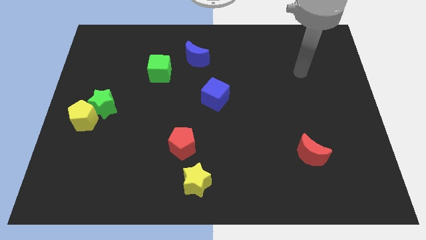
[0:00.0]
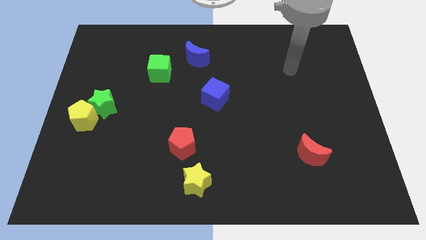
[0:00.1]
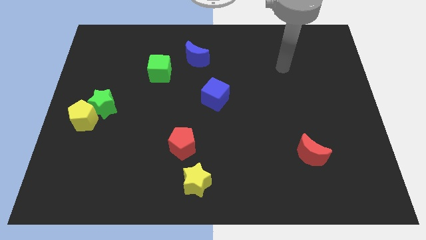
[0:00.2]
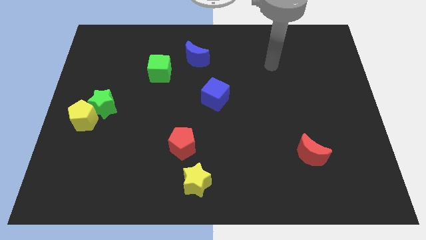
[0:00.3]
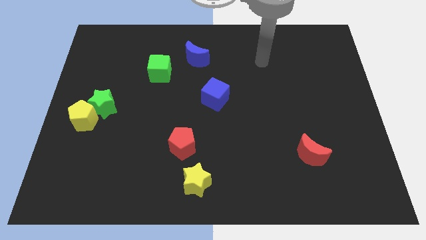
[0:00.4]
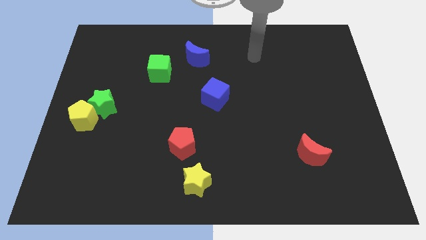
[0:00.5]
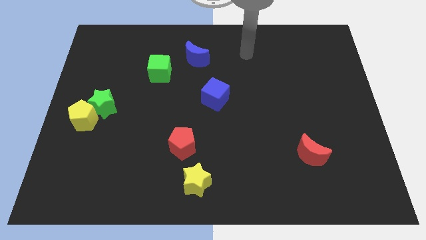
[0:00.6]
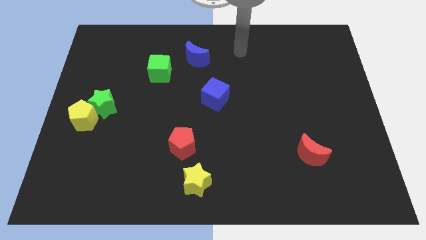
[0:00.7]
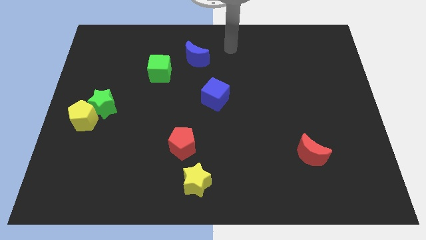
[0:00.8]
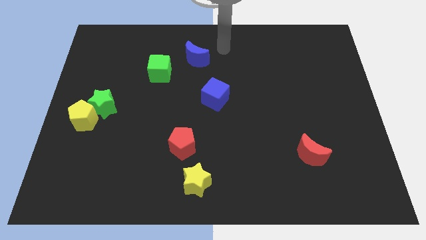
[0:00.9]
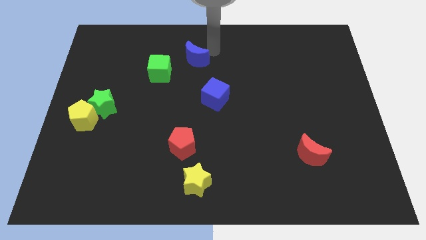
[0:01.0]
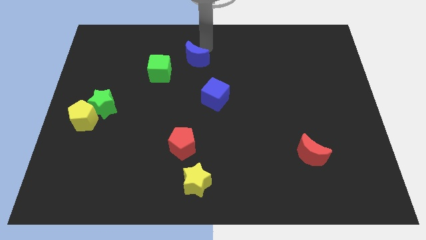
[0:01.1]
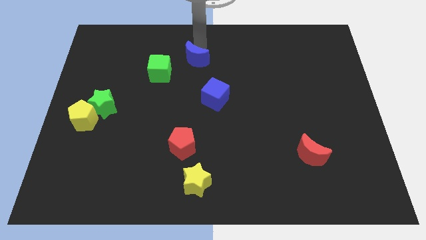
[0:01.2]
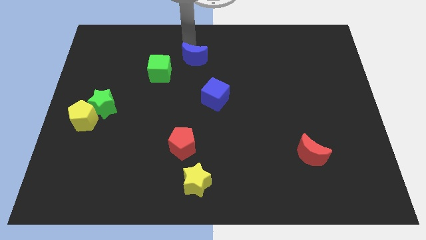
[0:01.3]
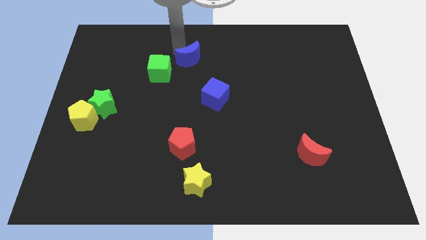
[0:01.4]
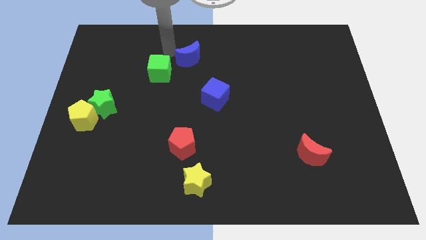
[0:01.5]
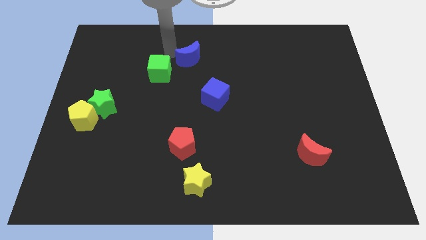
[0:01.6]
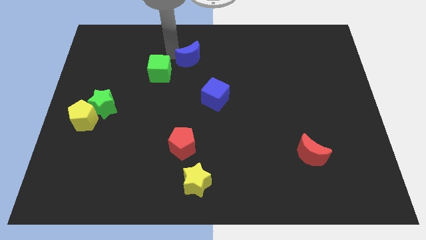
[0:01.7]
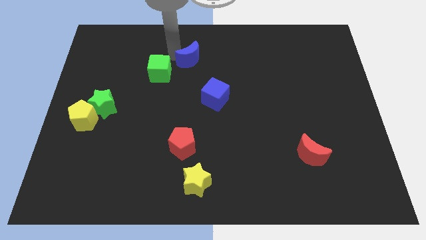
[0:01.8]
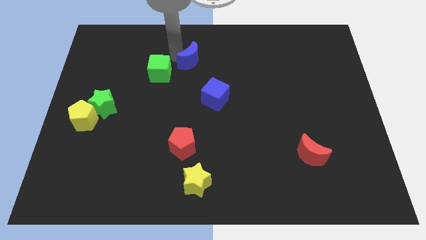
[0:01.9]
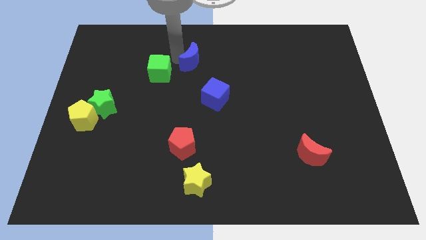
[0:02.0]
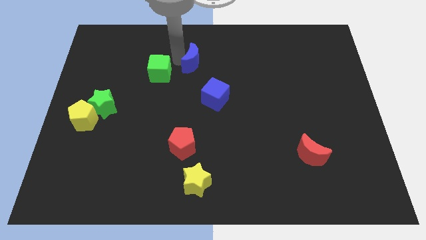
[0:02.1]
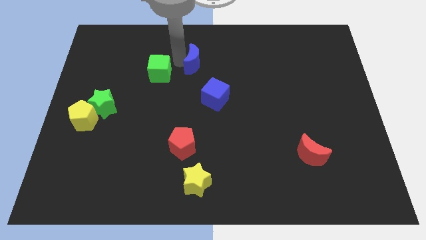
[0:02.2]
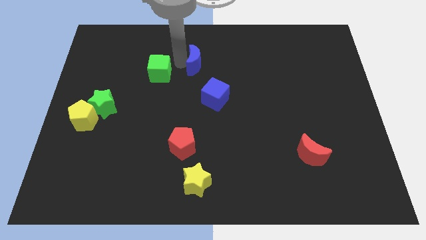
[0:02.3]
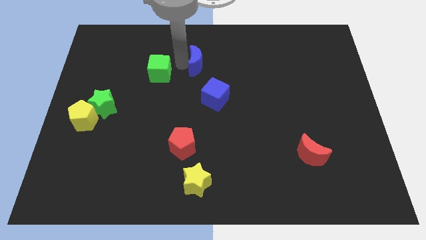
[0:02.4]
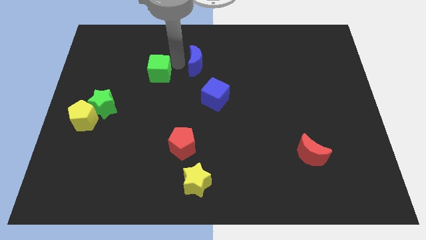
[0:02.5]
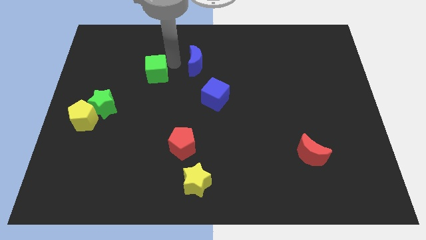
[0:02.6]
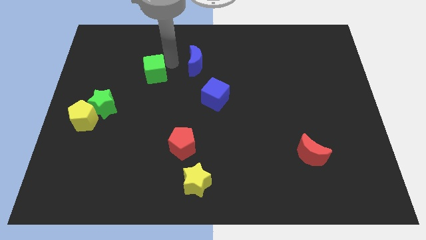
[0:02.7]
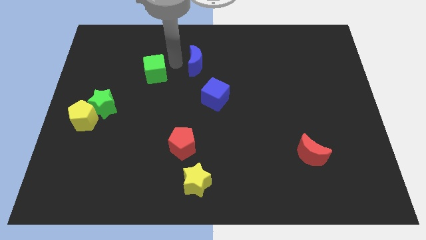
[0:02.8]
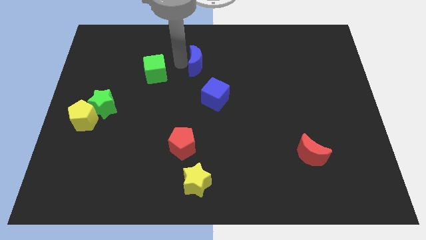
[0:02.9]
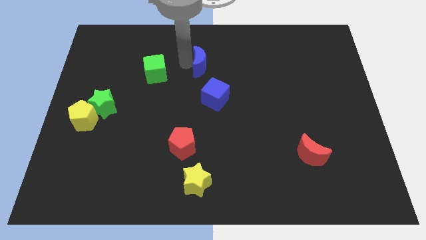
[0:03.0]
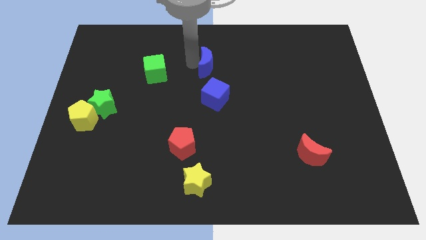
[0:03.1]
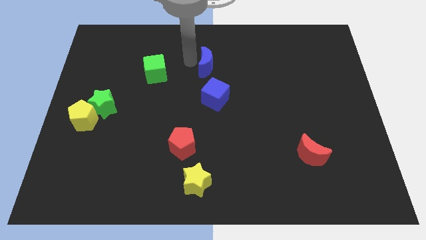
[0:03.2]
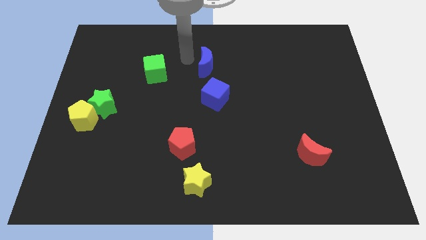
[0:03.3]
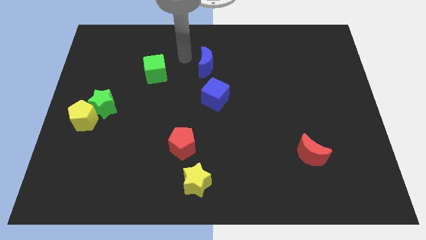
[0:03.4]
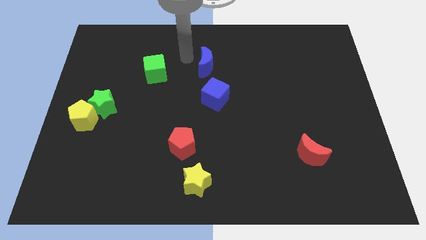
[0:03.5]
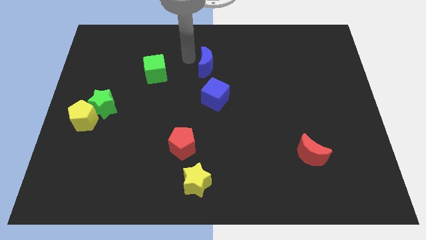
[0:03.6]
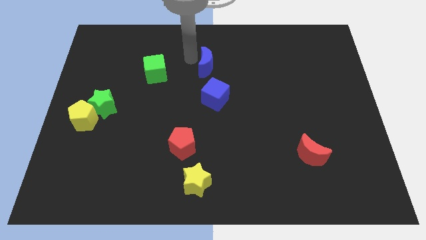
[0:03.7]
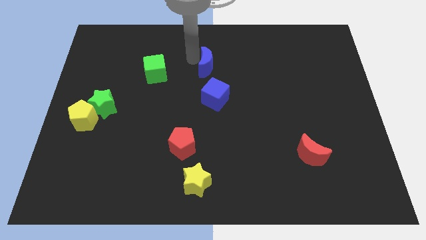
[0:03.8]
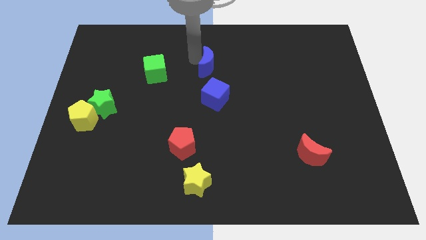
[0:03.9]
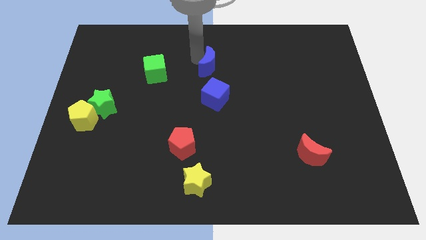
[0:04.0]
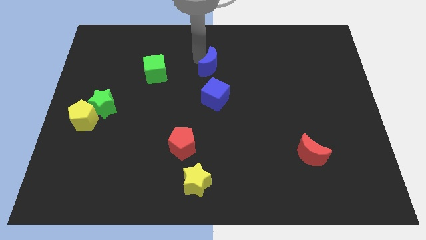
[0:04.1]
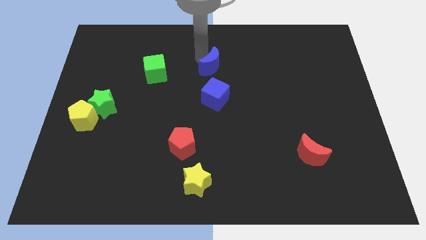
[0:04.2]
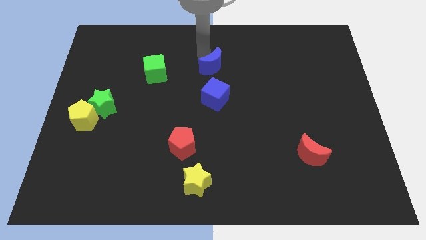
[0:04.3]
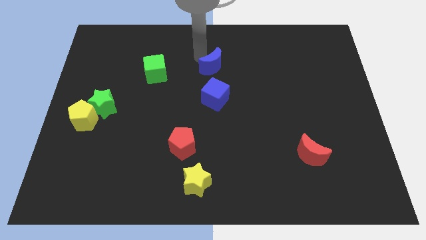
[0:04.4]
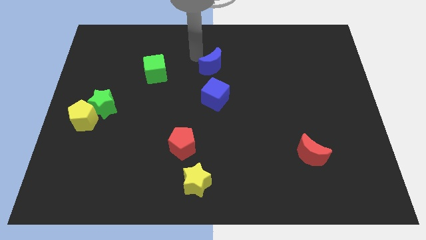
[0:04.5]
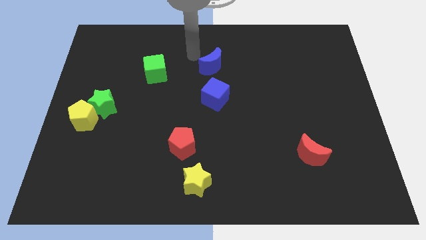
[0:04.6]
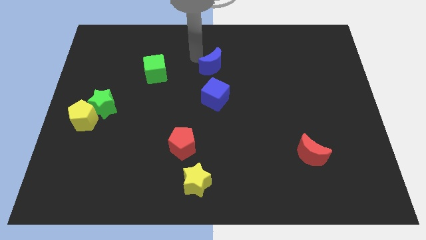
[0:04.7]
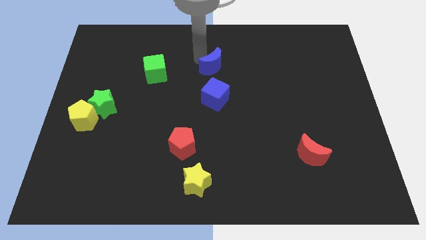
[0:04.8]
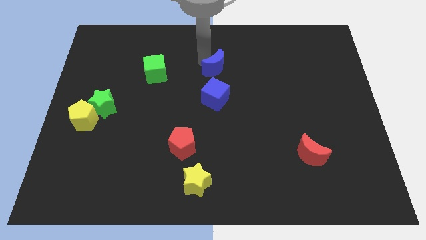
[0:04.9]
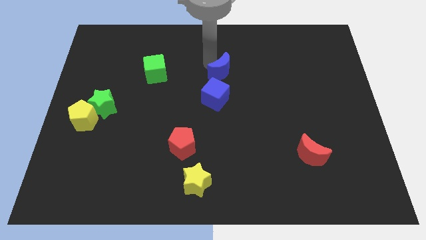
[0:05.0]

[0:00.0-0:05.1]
push the blue moon diagonally up and to the right of the blue cube

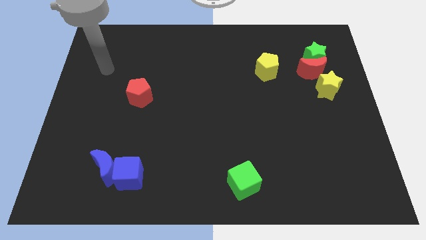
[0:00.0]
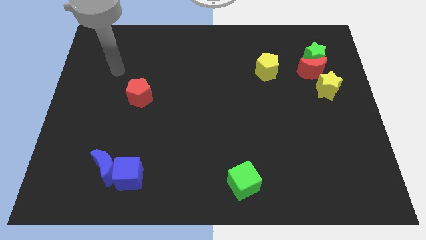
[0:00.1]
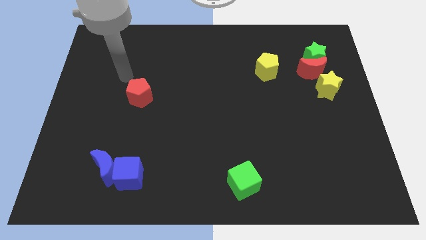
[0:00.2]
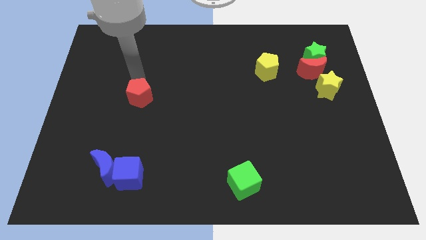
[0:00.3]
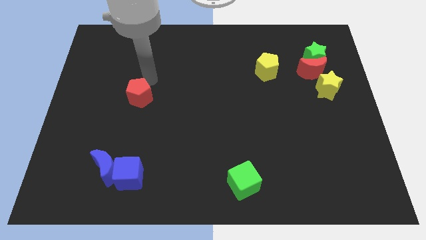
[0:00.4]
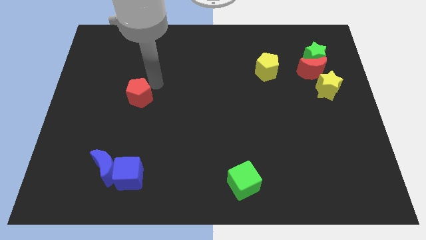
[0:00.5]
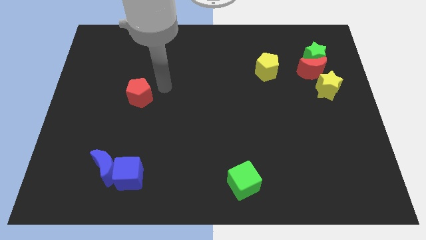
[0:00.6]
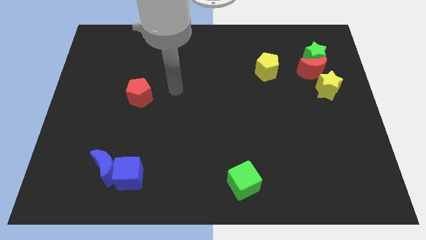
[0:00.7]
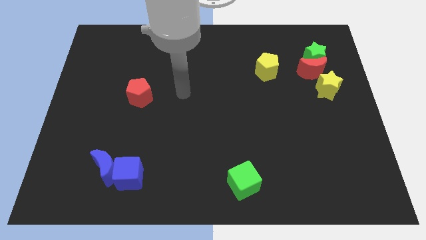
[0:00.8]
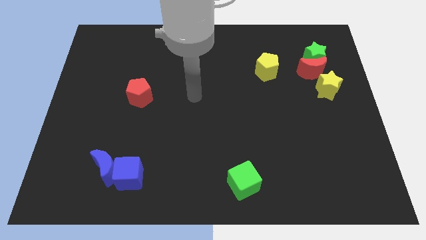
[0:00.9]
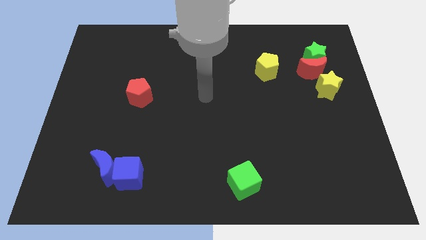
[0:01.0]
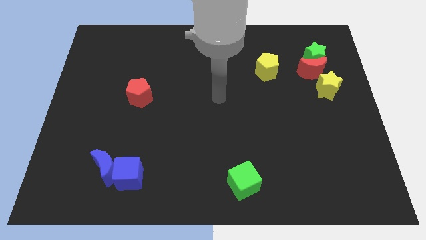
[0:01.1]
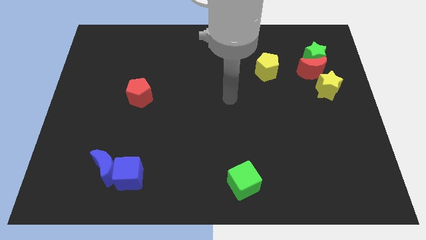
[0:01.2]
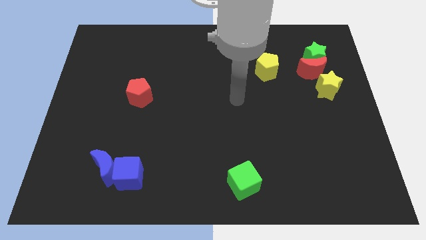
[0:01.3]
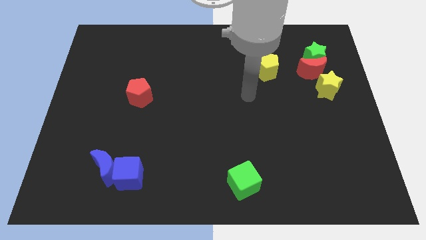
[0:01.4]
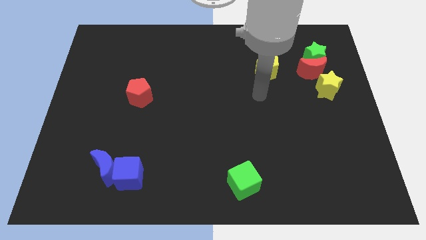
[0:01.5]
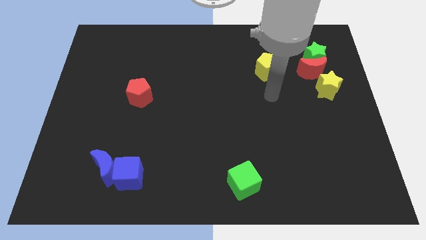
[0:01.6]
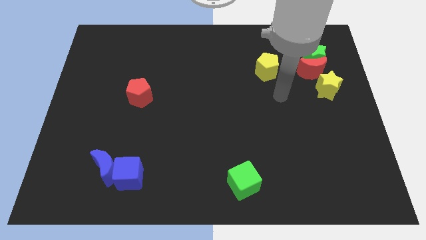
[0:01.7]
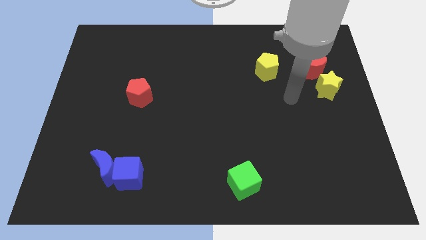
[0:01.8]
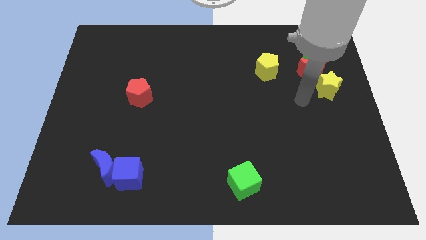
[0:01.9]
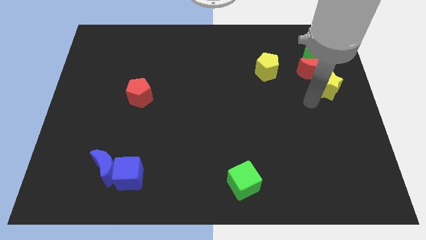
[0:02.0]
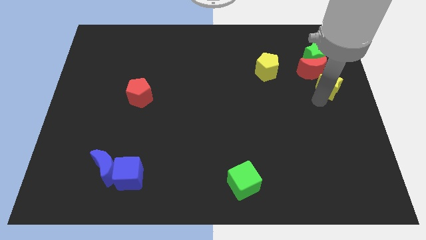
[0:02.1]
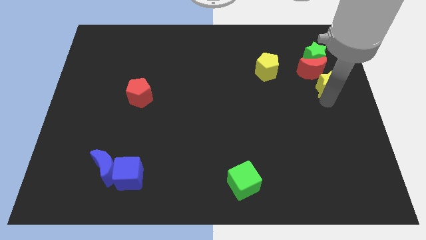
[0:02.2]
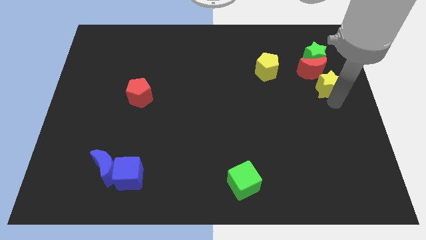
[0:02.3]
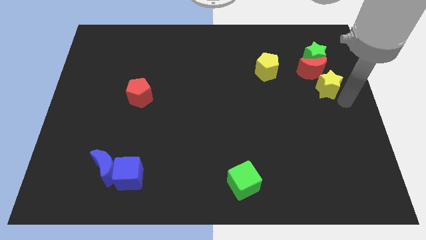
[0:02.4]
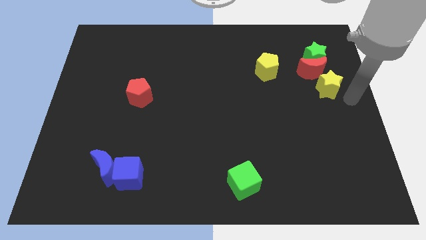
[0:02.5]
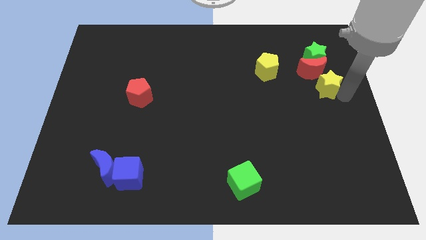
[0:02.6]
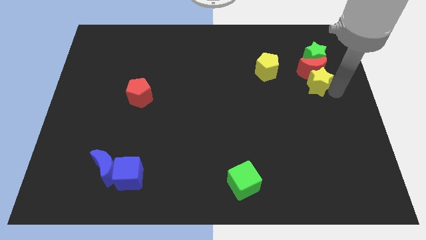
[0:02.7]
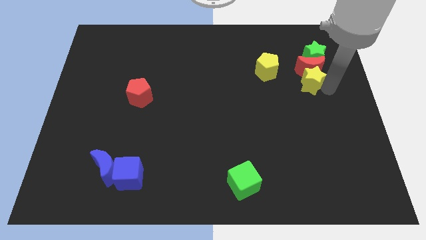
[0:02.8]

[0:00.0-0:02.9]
put the yellow star to the bottom left of the green star
